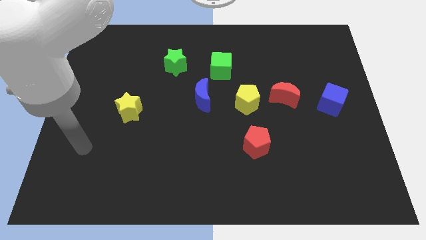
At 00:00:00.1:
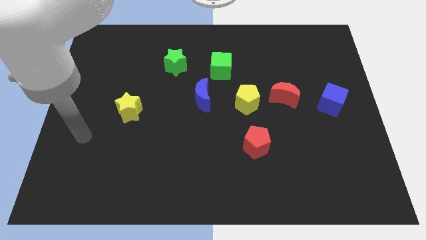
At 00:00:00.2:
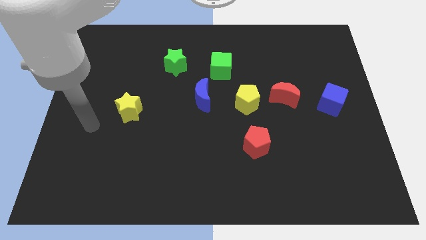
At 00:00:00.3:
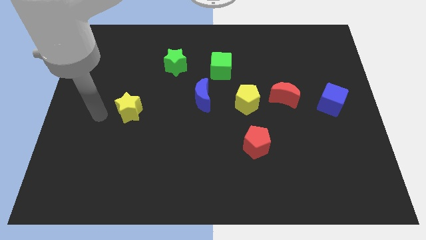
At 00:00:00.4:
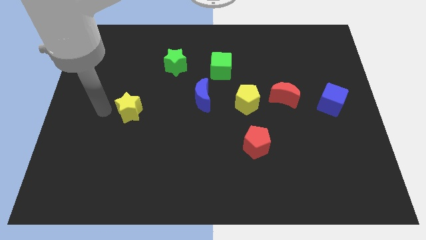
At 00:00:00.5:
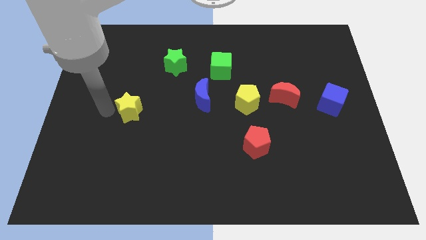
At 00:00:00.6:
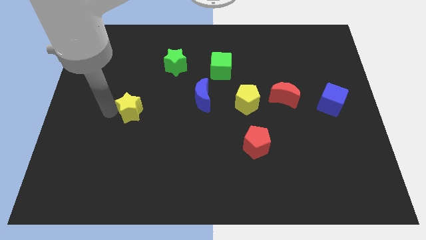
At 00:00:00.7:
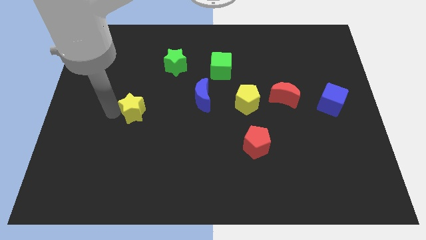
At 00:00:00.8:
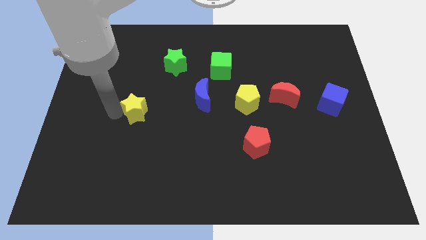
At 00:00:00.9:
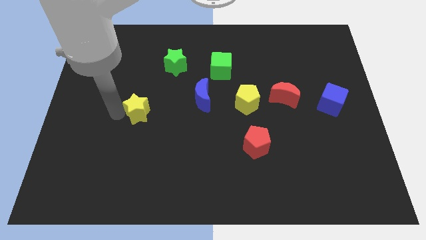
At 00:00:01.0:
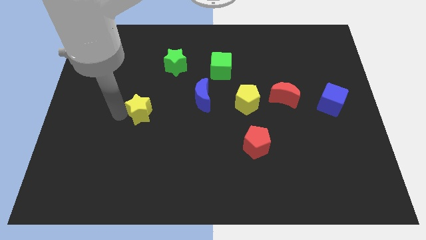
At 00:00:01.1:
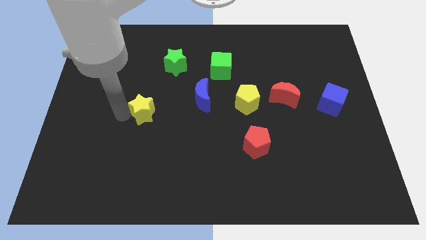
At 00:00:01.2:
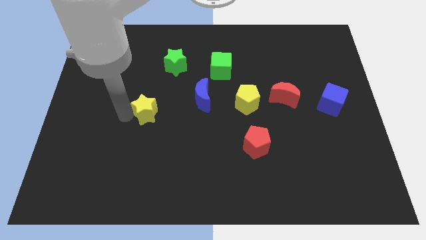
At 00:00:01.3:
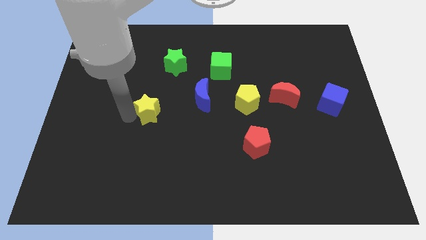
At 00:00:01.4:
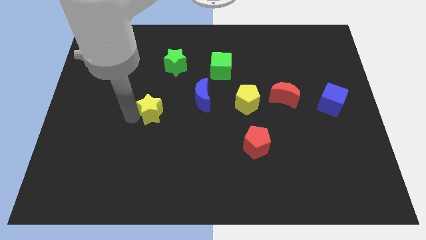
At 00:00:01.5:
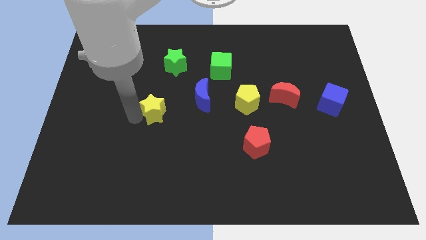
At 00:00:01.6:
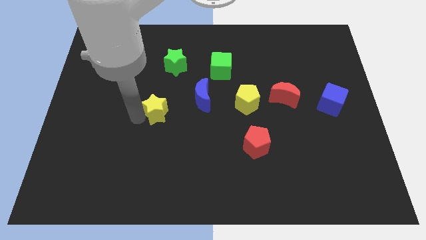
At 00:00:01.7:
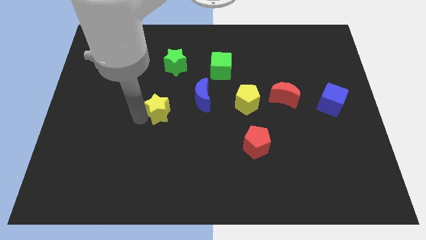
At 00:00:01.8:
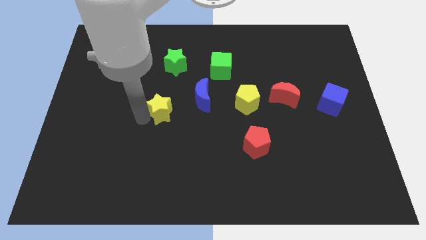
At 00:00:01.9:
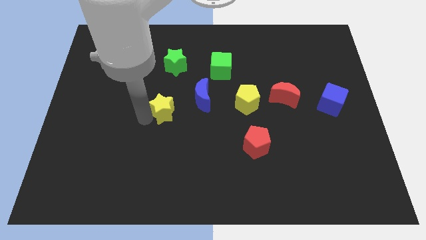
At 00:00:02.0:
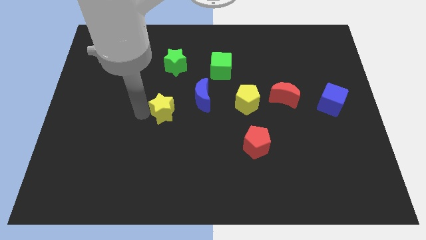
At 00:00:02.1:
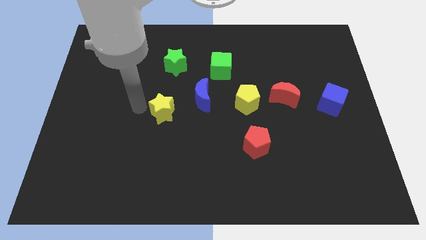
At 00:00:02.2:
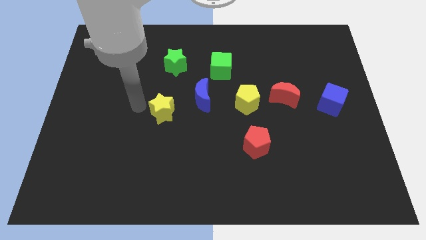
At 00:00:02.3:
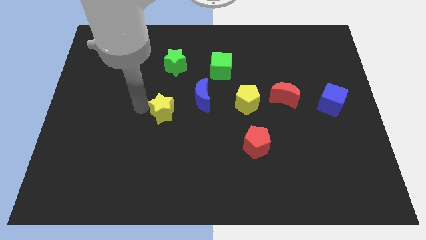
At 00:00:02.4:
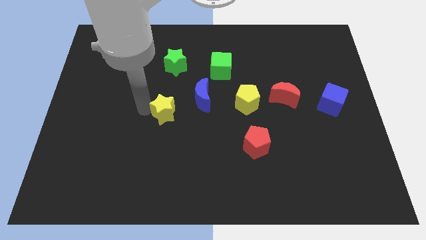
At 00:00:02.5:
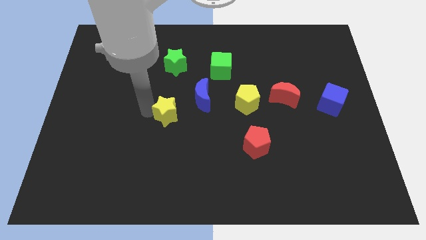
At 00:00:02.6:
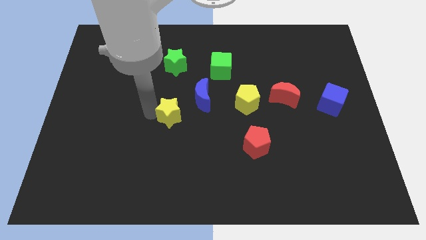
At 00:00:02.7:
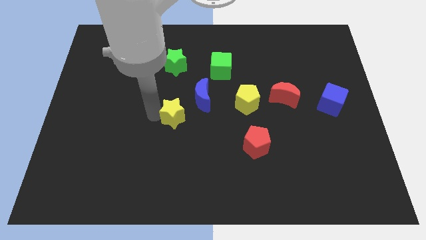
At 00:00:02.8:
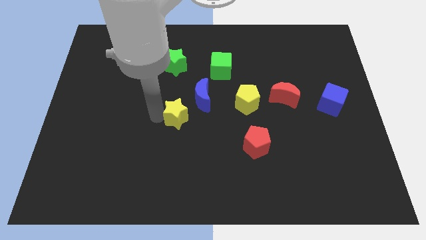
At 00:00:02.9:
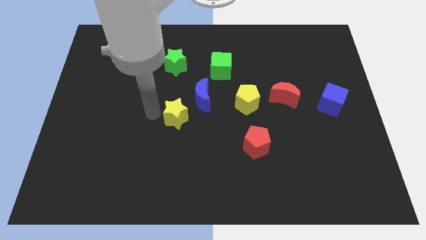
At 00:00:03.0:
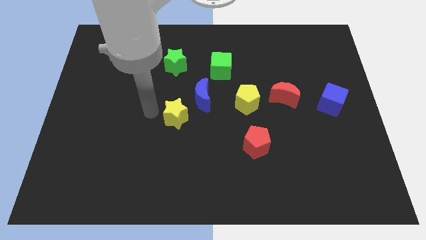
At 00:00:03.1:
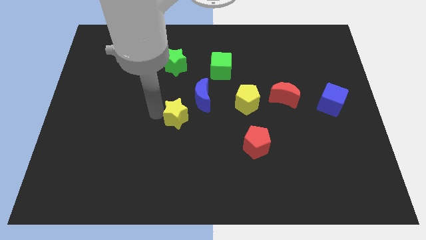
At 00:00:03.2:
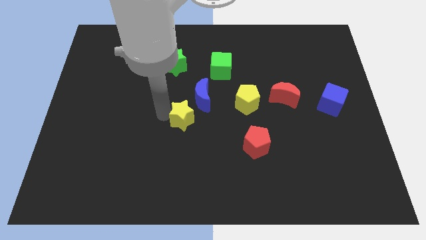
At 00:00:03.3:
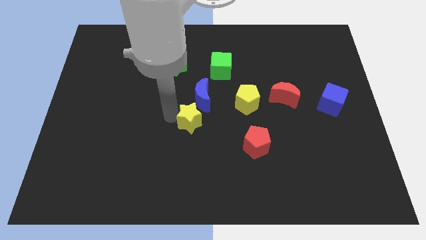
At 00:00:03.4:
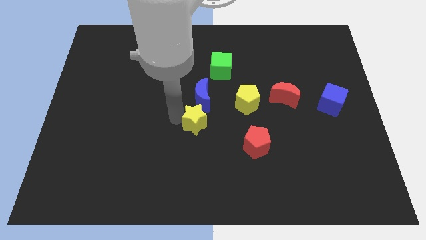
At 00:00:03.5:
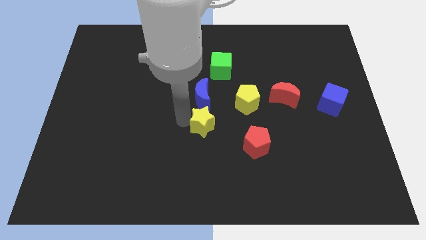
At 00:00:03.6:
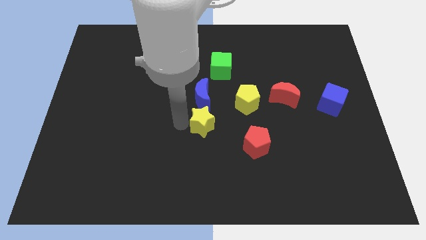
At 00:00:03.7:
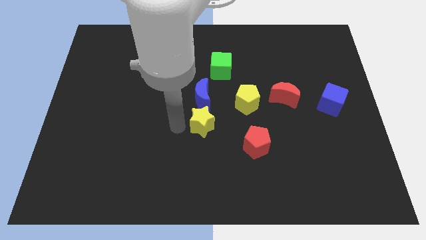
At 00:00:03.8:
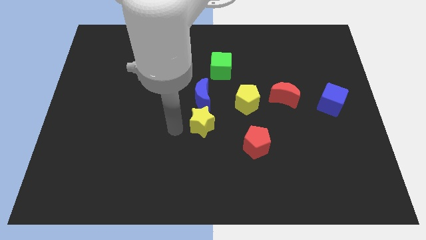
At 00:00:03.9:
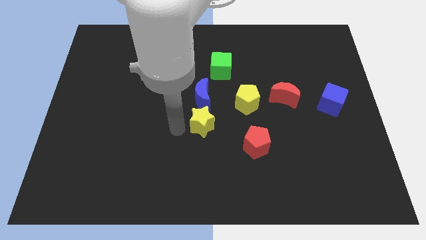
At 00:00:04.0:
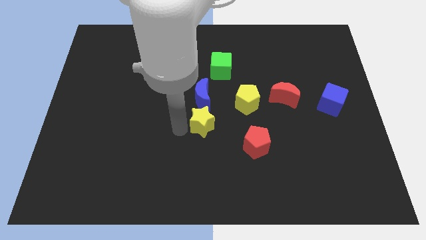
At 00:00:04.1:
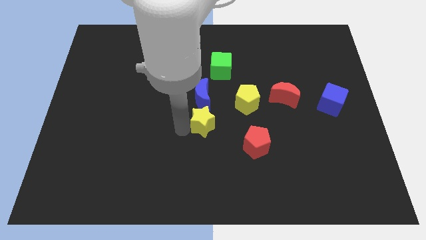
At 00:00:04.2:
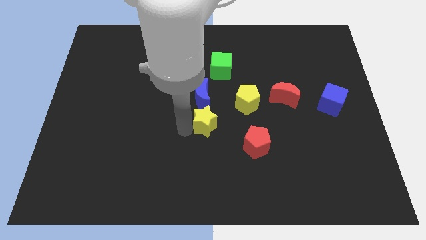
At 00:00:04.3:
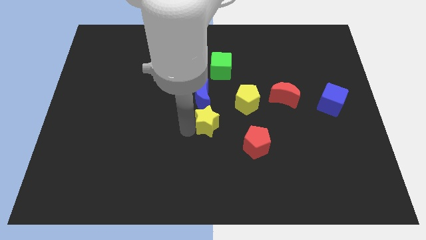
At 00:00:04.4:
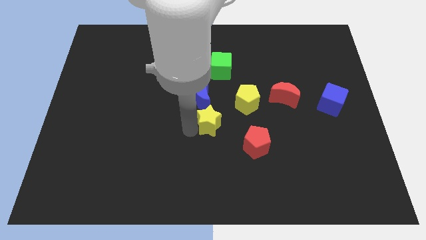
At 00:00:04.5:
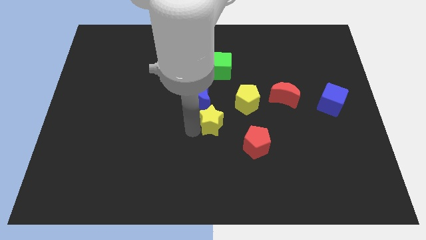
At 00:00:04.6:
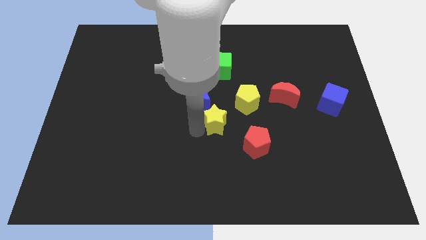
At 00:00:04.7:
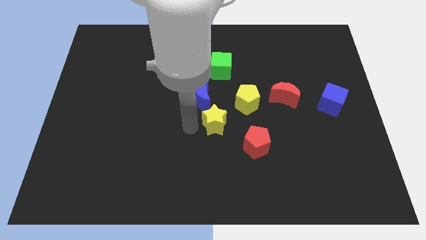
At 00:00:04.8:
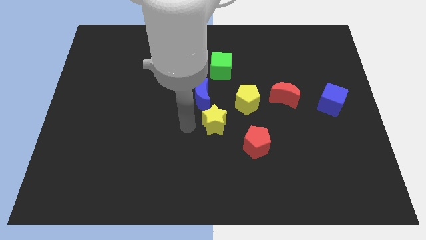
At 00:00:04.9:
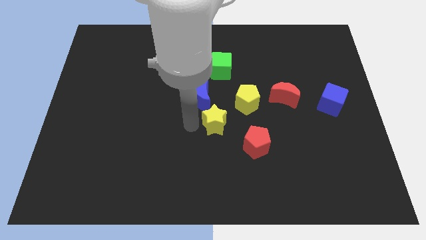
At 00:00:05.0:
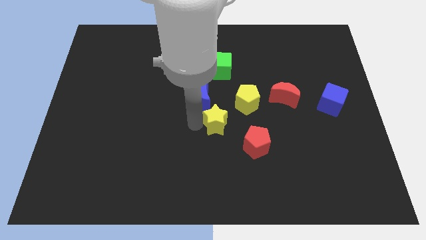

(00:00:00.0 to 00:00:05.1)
slide the yellow star right

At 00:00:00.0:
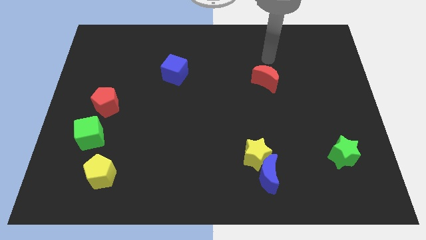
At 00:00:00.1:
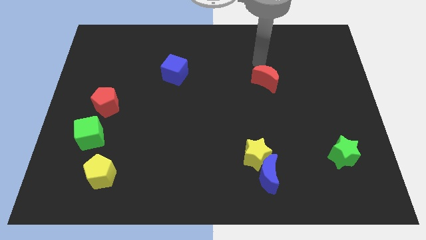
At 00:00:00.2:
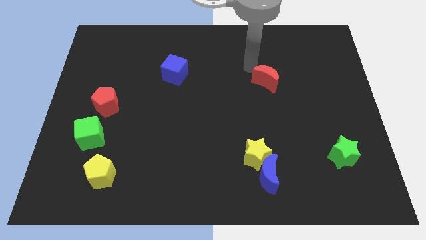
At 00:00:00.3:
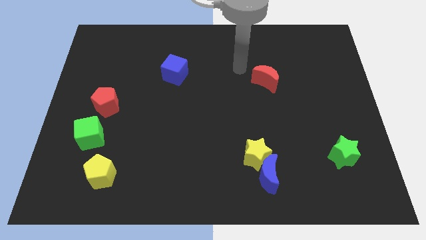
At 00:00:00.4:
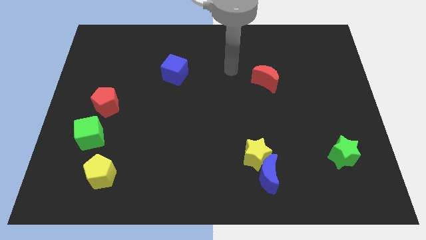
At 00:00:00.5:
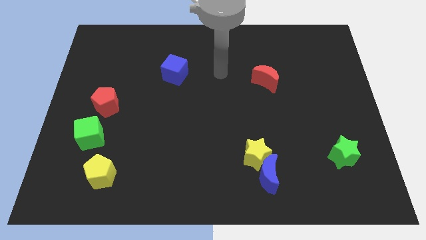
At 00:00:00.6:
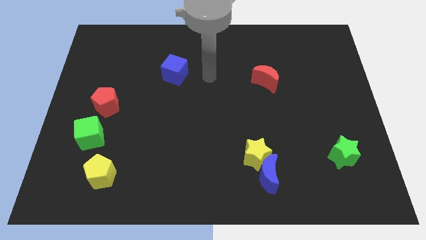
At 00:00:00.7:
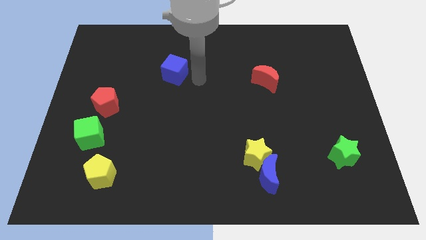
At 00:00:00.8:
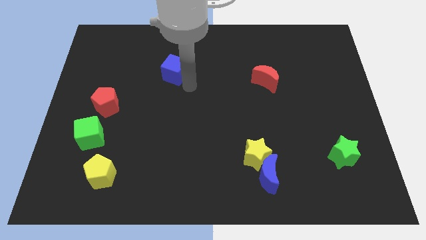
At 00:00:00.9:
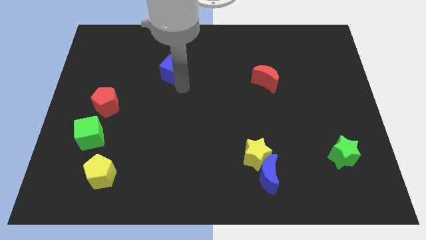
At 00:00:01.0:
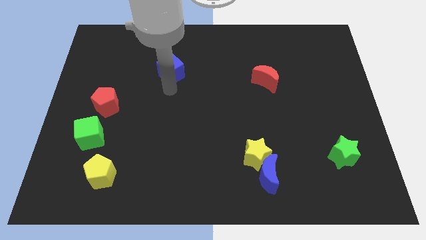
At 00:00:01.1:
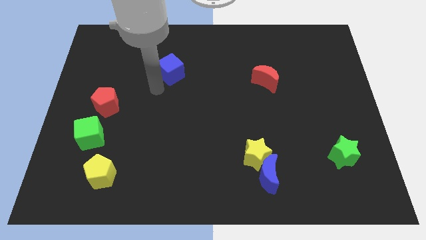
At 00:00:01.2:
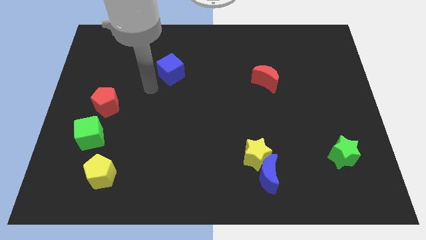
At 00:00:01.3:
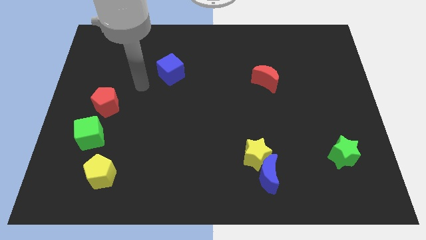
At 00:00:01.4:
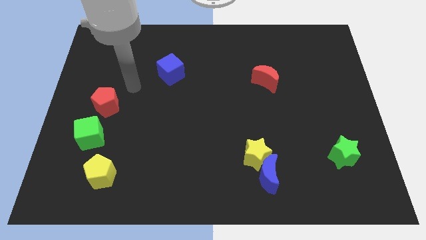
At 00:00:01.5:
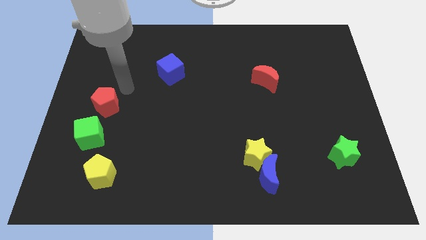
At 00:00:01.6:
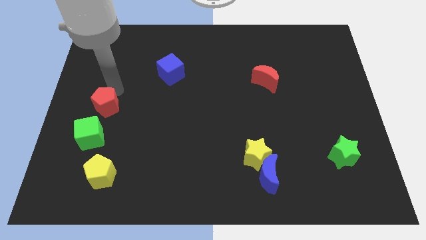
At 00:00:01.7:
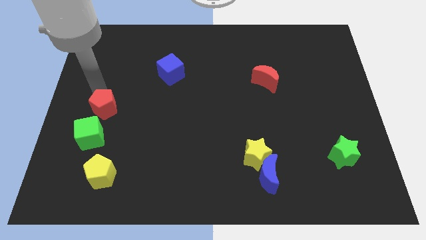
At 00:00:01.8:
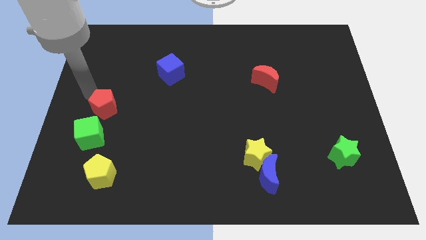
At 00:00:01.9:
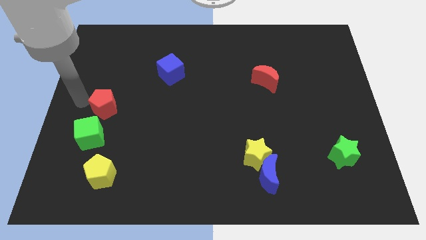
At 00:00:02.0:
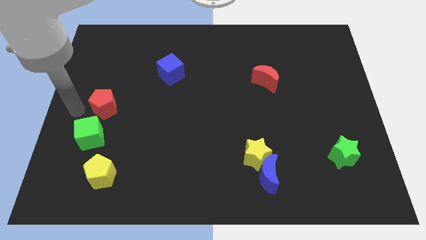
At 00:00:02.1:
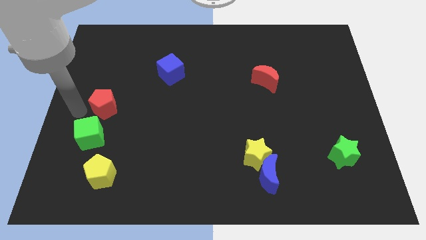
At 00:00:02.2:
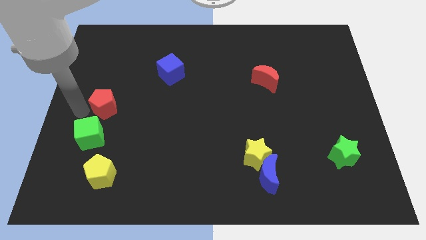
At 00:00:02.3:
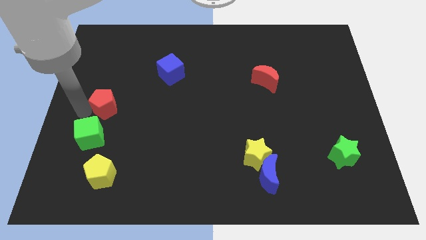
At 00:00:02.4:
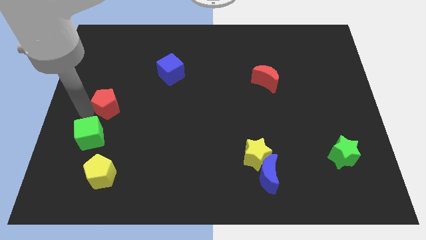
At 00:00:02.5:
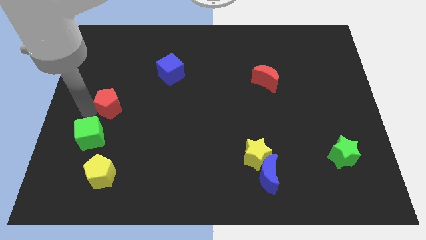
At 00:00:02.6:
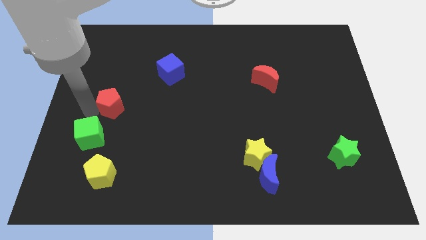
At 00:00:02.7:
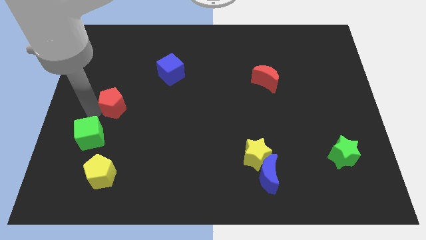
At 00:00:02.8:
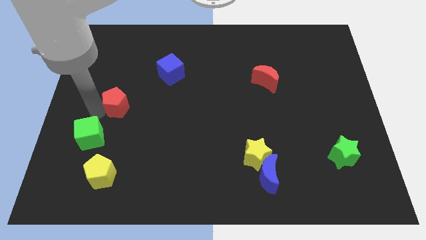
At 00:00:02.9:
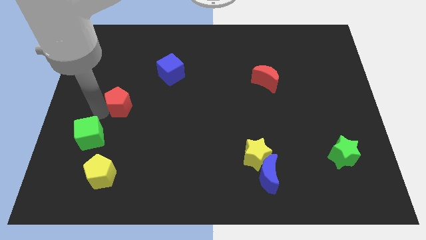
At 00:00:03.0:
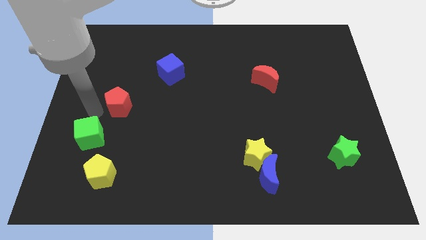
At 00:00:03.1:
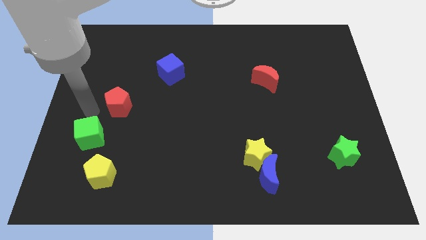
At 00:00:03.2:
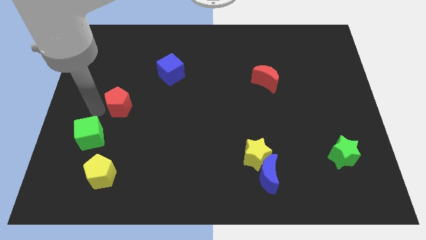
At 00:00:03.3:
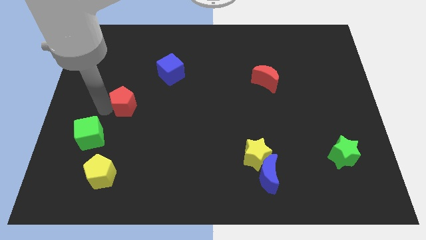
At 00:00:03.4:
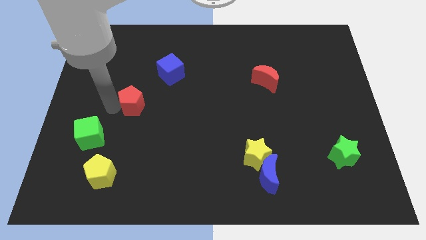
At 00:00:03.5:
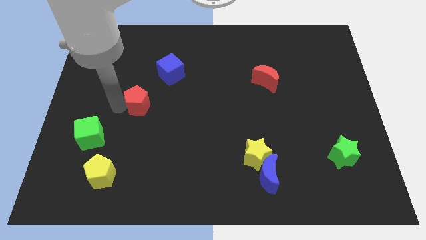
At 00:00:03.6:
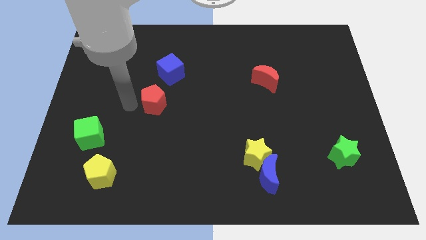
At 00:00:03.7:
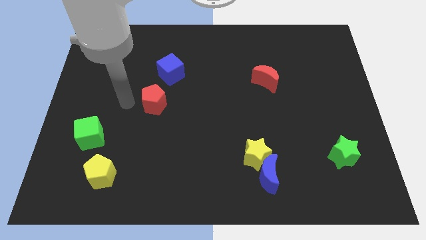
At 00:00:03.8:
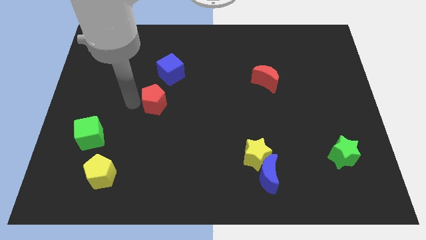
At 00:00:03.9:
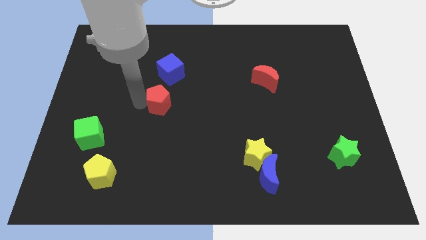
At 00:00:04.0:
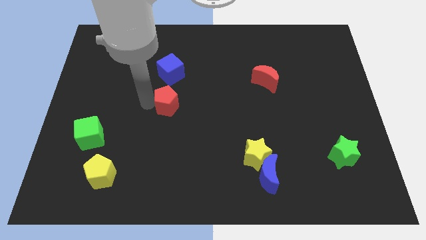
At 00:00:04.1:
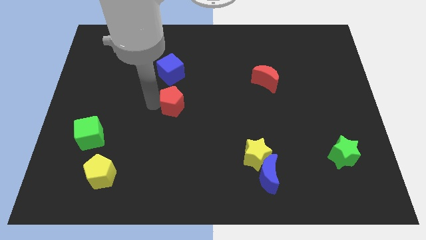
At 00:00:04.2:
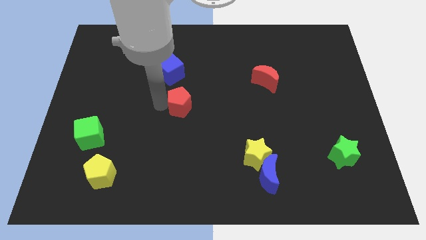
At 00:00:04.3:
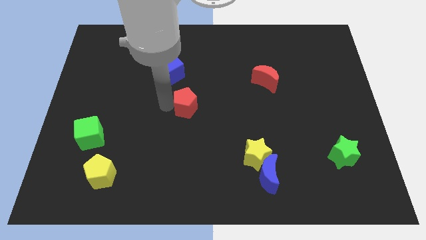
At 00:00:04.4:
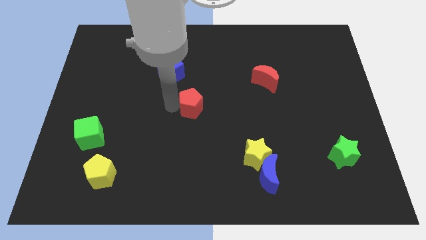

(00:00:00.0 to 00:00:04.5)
slide the red pentagon to the right
